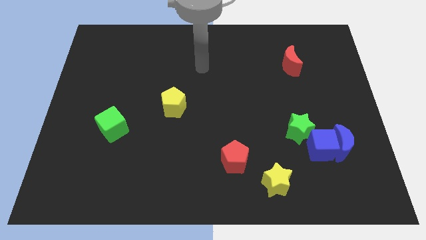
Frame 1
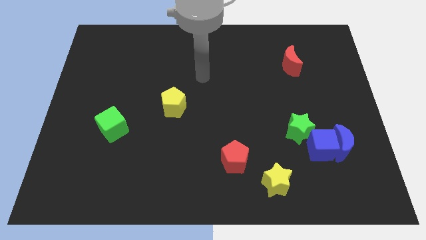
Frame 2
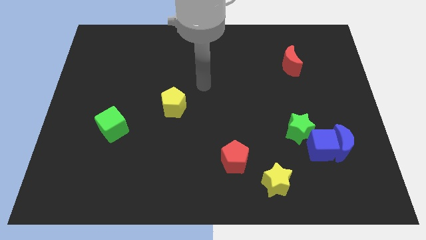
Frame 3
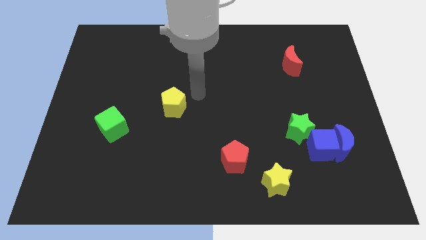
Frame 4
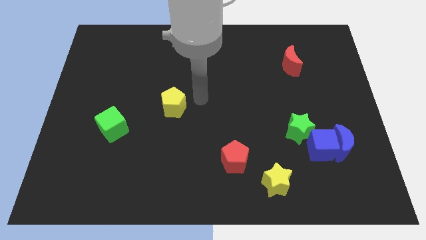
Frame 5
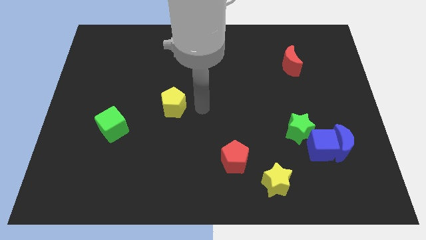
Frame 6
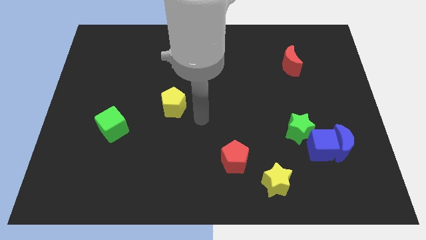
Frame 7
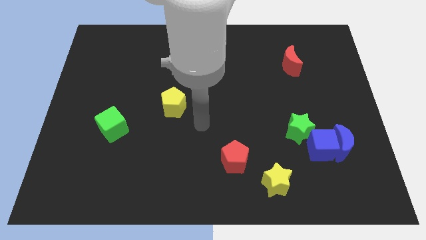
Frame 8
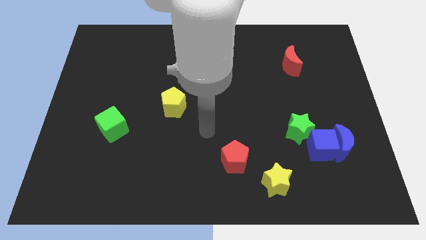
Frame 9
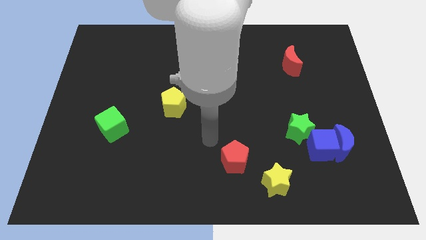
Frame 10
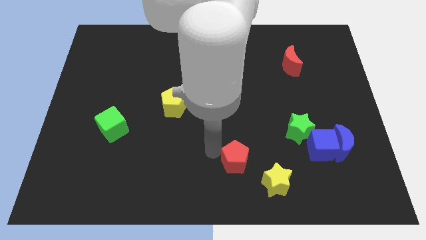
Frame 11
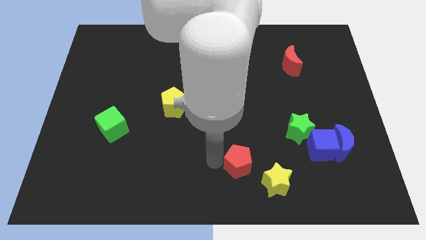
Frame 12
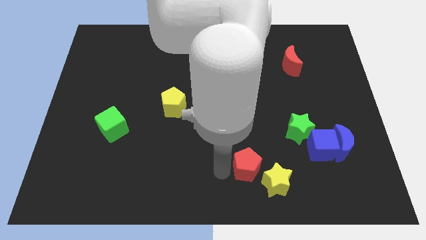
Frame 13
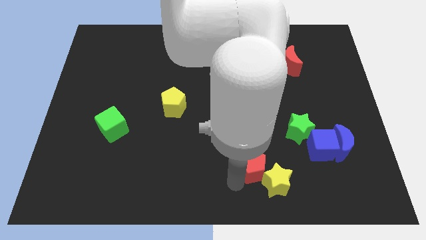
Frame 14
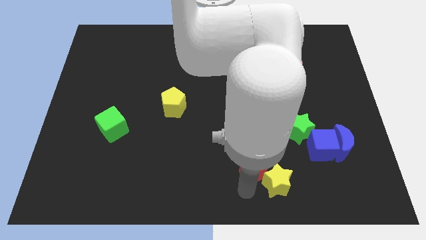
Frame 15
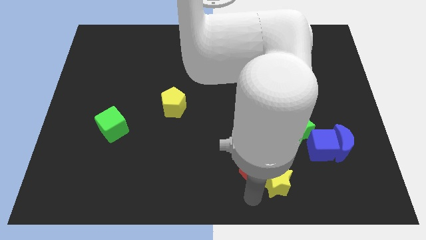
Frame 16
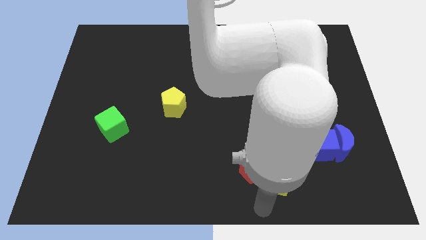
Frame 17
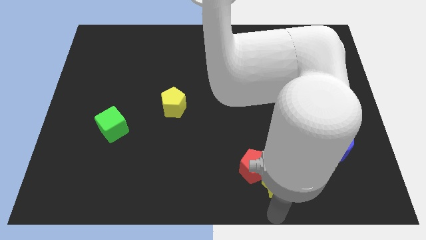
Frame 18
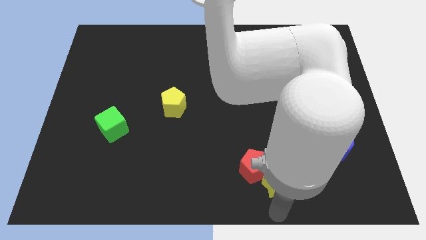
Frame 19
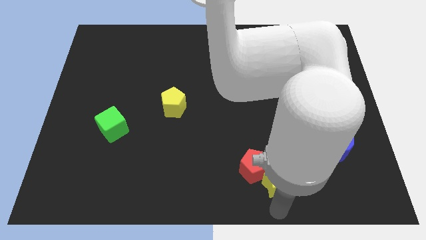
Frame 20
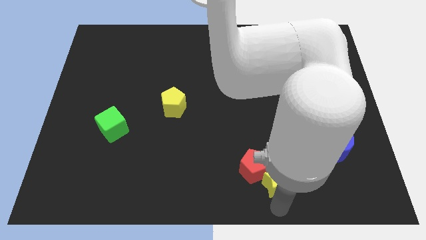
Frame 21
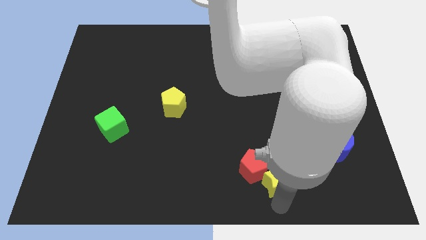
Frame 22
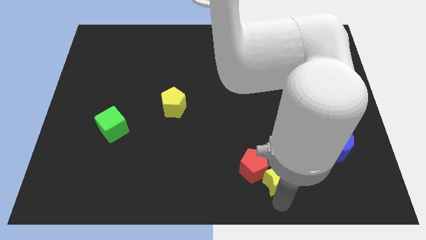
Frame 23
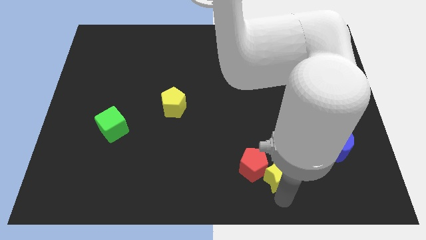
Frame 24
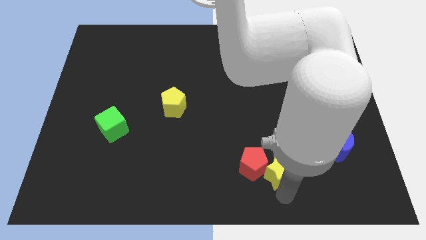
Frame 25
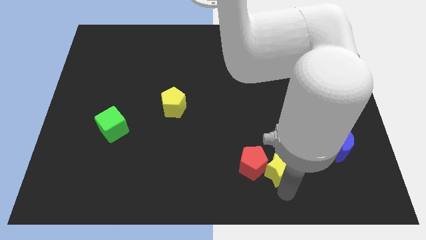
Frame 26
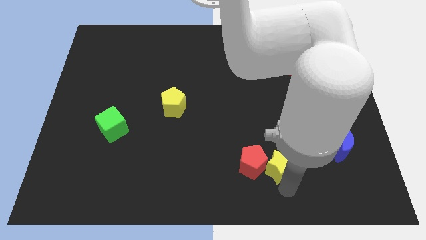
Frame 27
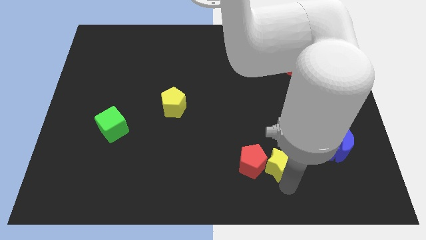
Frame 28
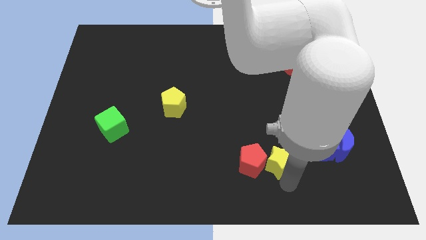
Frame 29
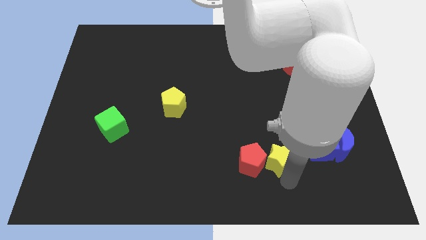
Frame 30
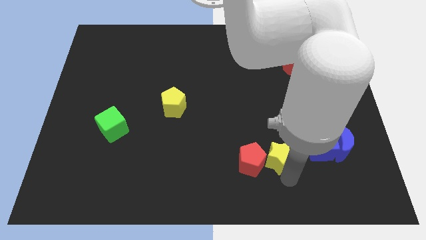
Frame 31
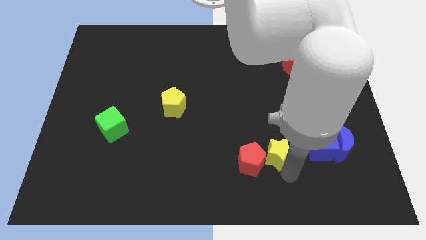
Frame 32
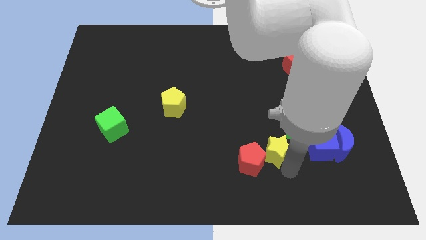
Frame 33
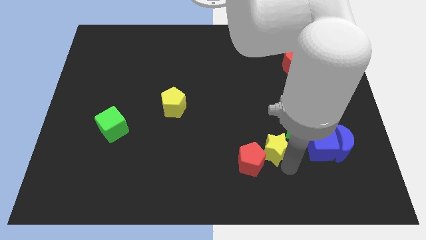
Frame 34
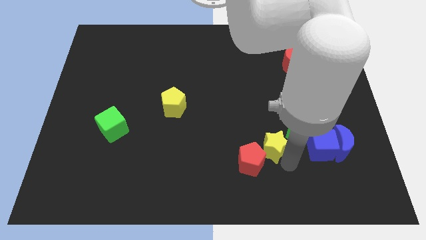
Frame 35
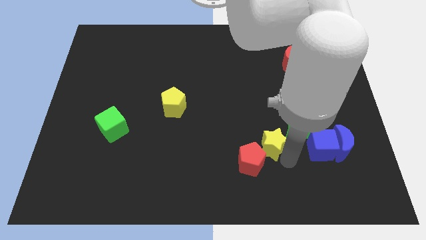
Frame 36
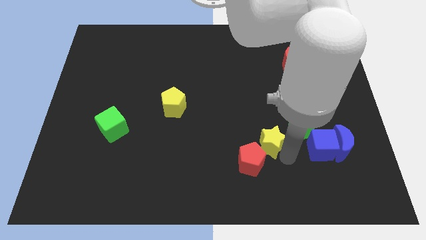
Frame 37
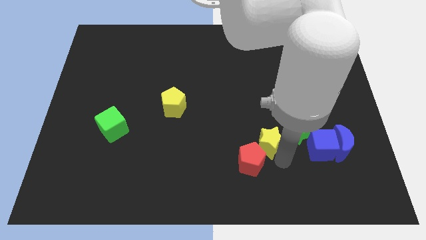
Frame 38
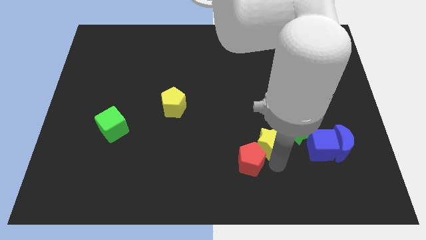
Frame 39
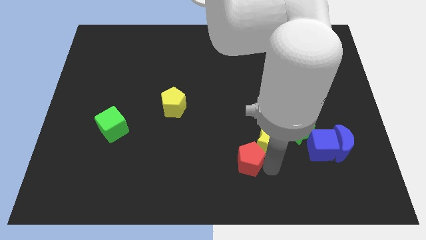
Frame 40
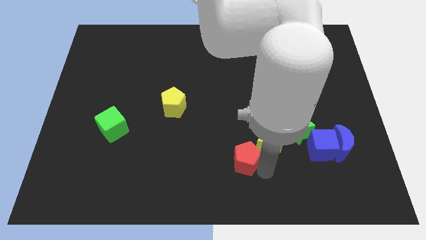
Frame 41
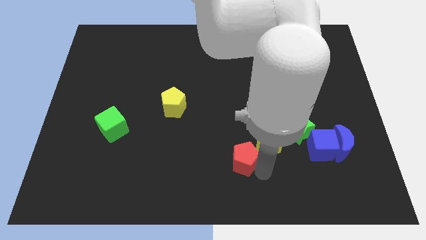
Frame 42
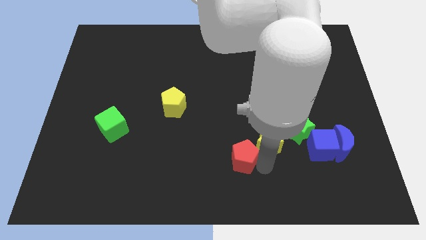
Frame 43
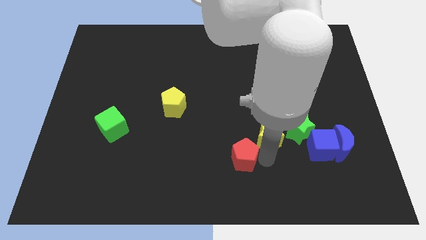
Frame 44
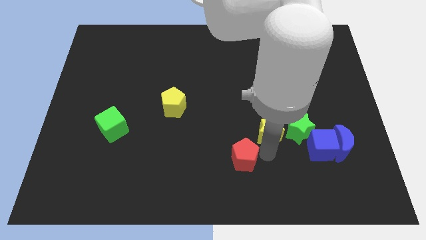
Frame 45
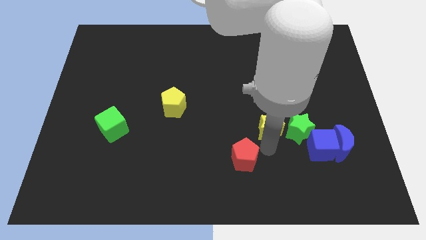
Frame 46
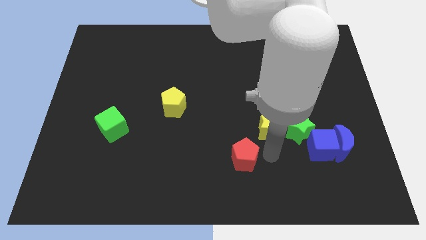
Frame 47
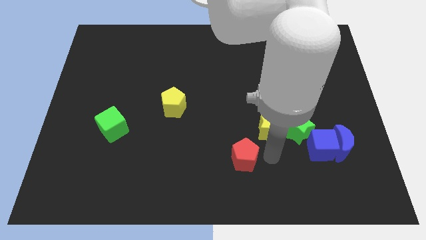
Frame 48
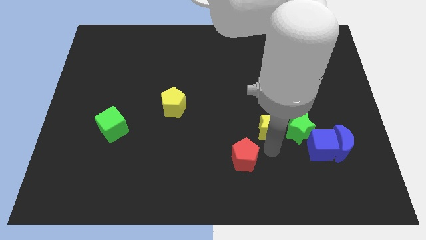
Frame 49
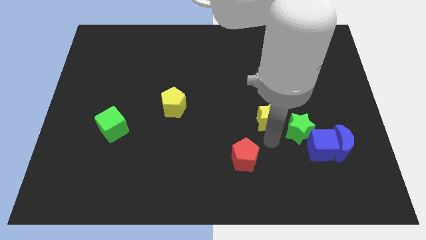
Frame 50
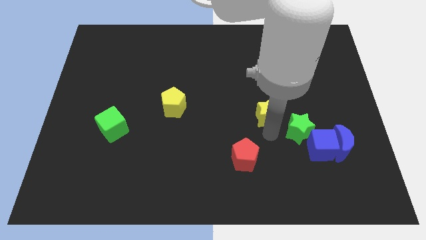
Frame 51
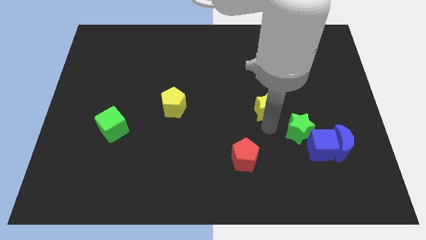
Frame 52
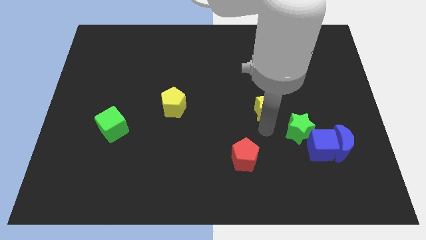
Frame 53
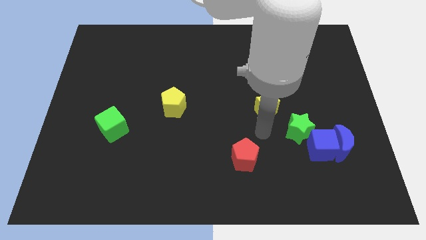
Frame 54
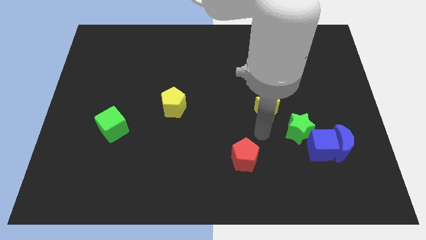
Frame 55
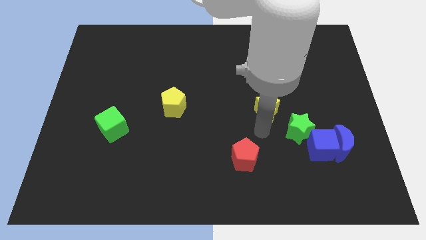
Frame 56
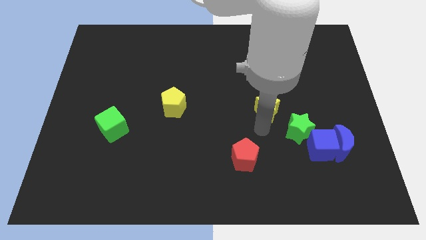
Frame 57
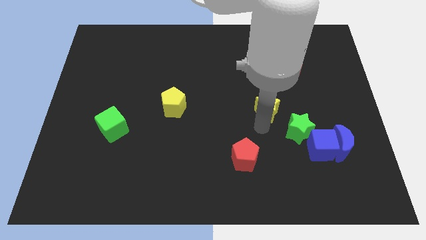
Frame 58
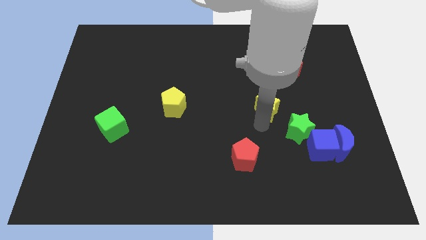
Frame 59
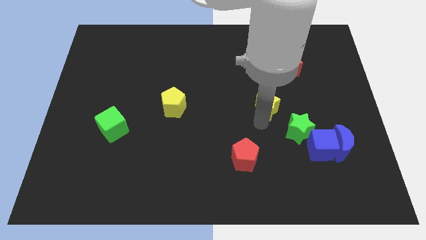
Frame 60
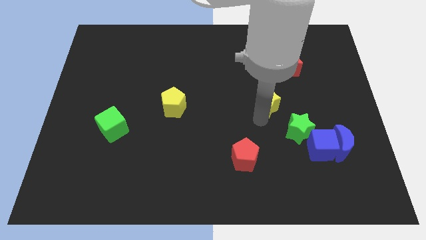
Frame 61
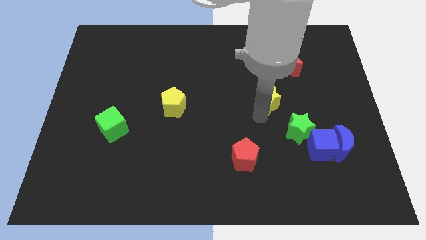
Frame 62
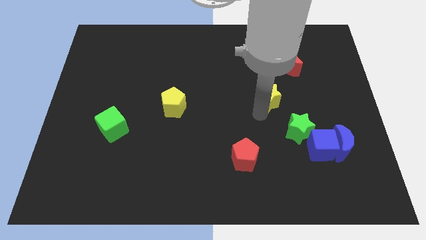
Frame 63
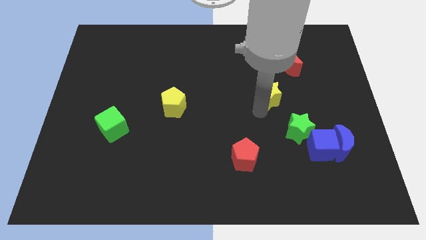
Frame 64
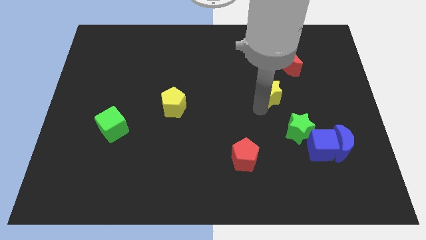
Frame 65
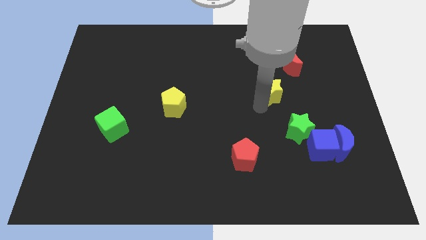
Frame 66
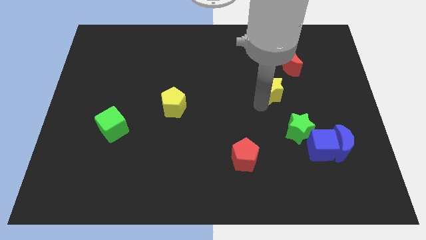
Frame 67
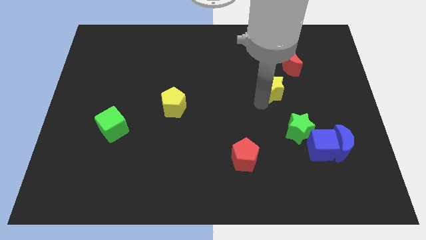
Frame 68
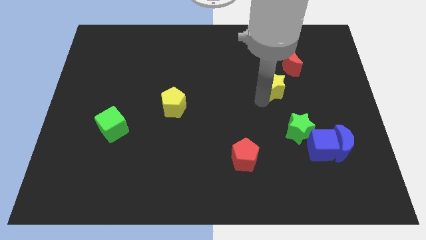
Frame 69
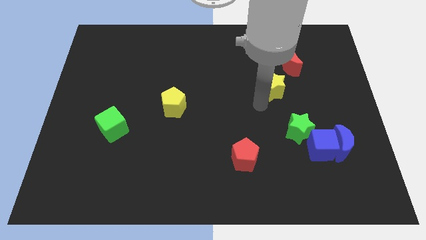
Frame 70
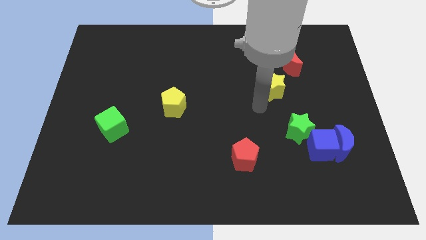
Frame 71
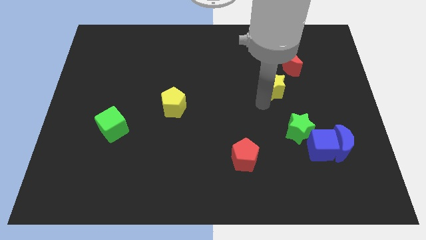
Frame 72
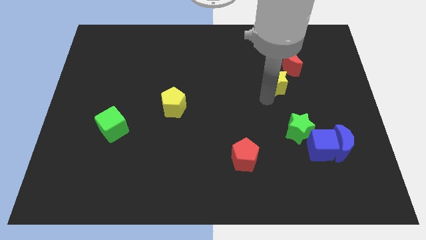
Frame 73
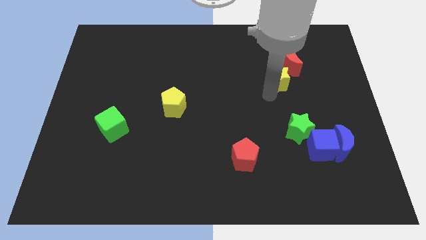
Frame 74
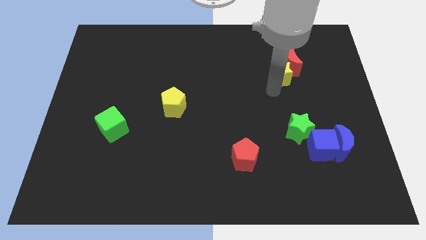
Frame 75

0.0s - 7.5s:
move the yellow star next to the red moon
